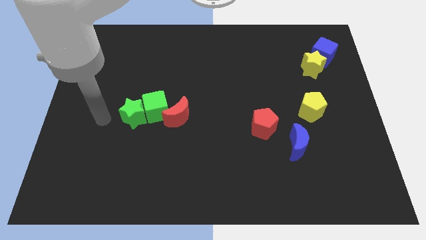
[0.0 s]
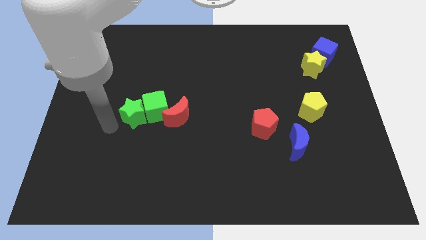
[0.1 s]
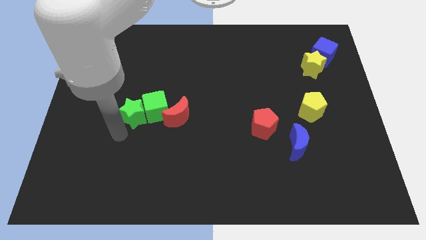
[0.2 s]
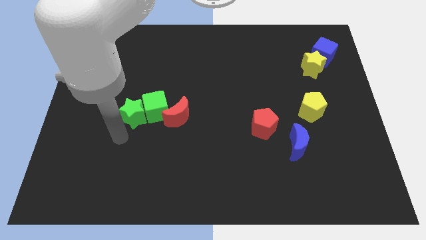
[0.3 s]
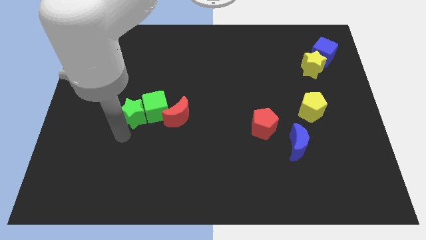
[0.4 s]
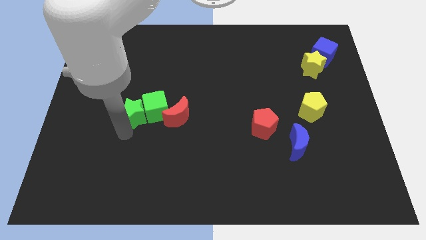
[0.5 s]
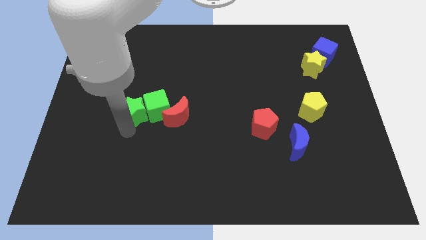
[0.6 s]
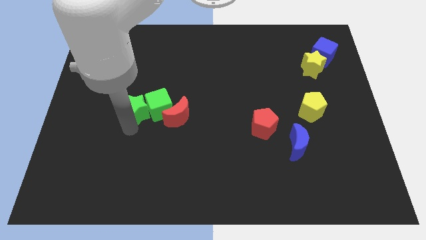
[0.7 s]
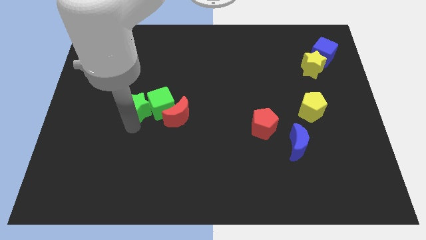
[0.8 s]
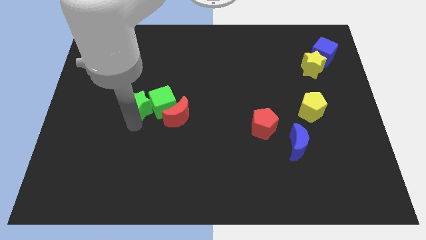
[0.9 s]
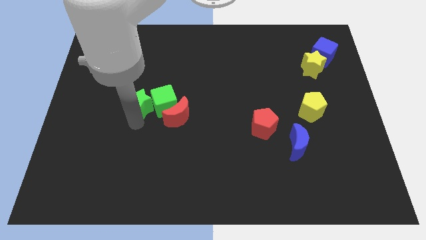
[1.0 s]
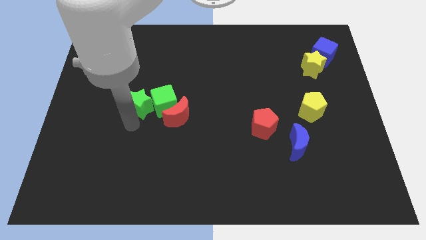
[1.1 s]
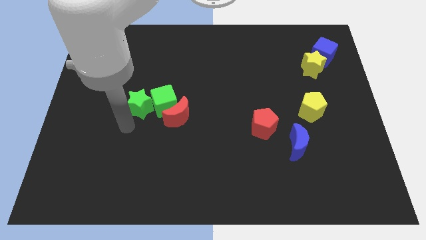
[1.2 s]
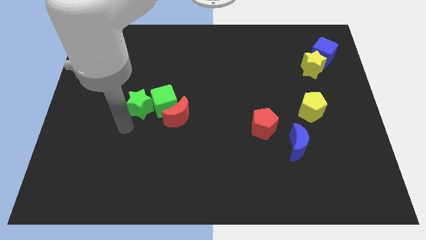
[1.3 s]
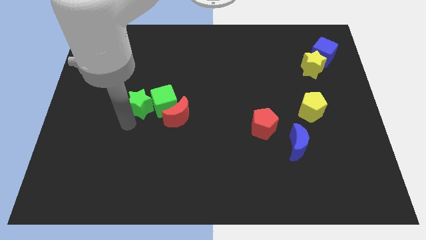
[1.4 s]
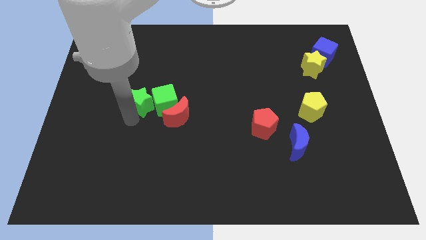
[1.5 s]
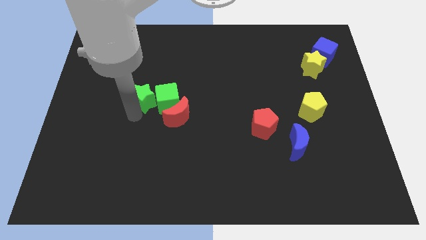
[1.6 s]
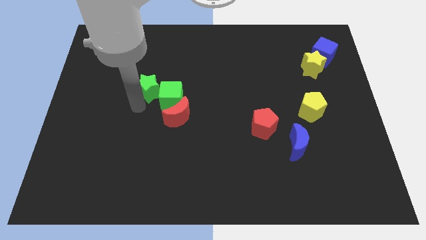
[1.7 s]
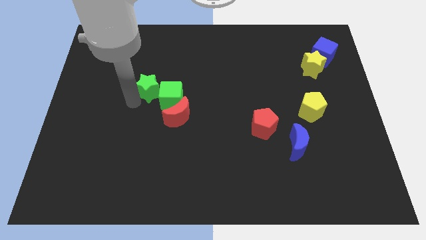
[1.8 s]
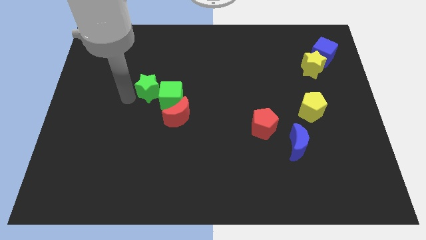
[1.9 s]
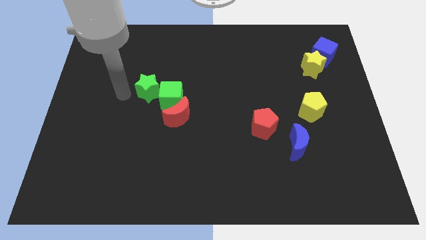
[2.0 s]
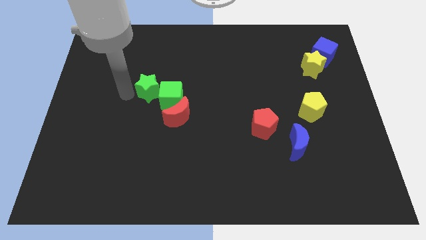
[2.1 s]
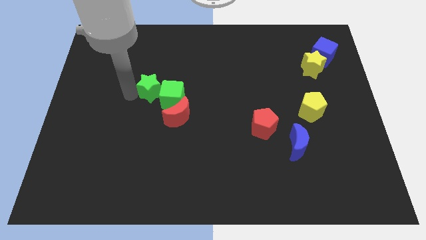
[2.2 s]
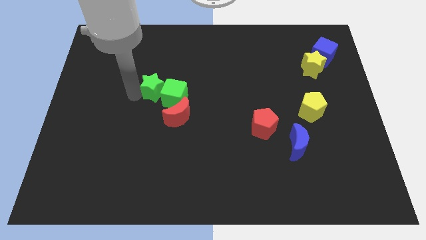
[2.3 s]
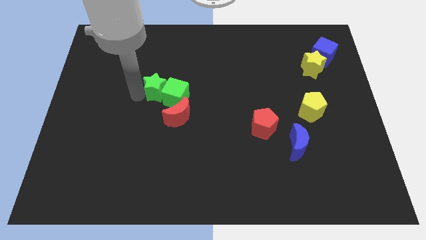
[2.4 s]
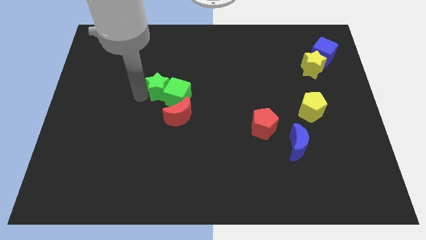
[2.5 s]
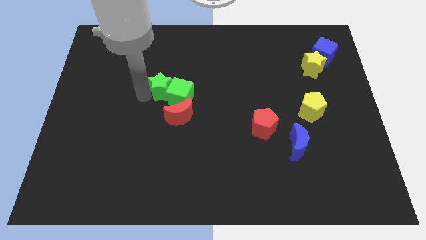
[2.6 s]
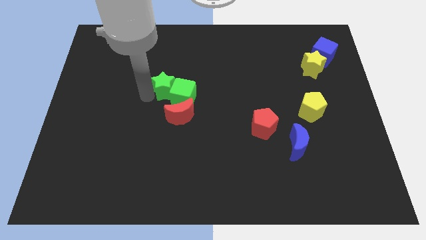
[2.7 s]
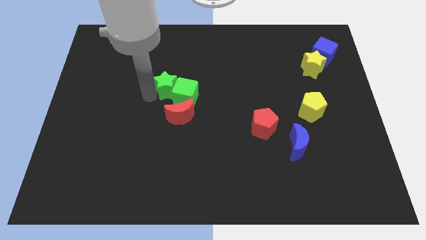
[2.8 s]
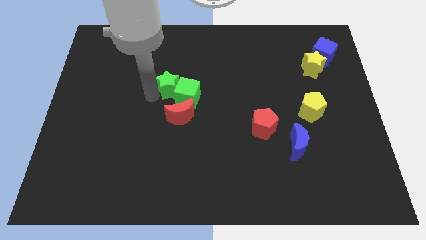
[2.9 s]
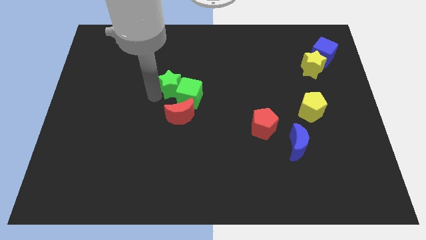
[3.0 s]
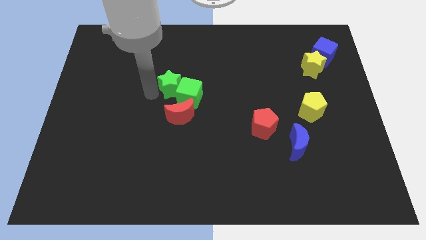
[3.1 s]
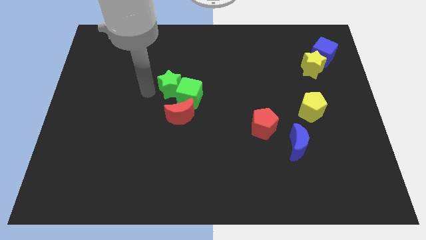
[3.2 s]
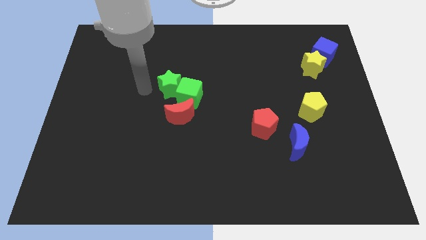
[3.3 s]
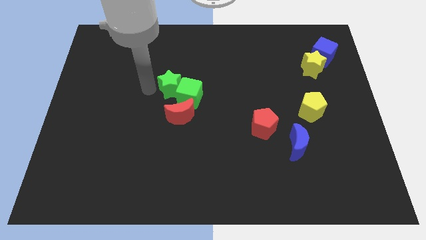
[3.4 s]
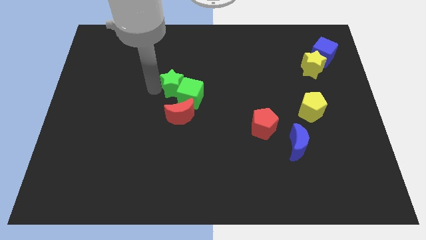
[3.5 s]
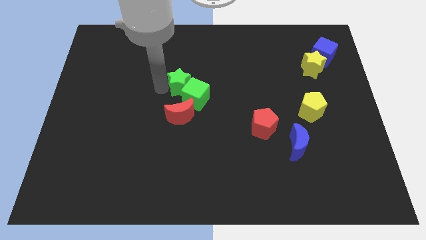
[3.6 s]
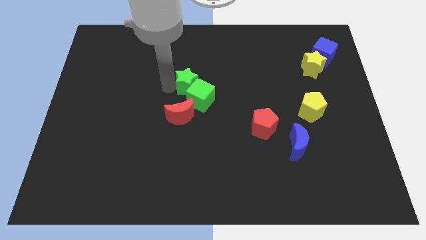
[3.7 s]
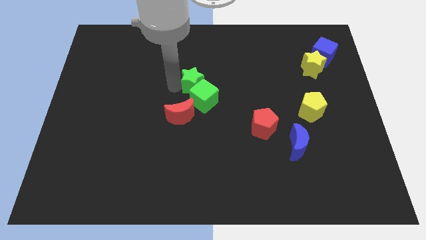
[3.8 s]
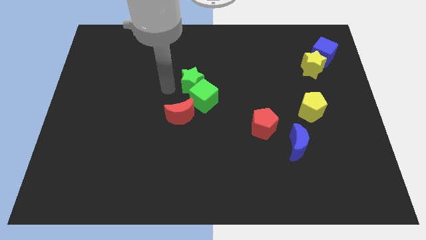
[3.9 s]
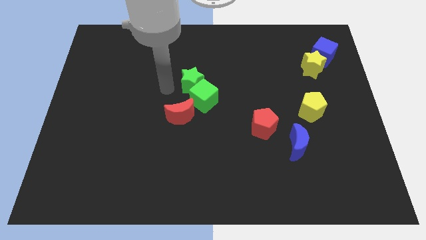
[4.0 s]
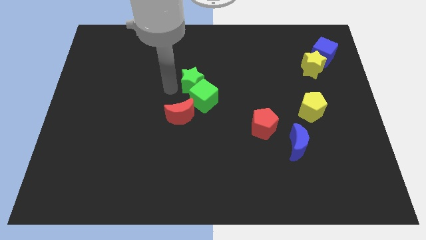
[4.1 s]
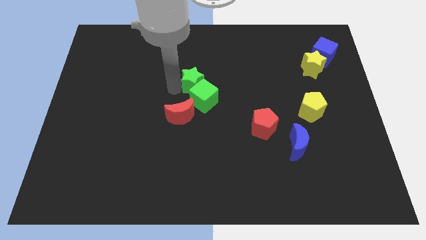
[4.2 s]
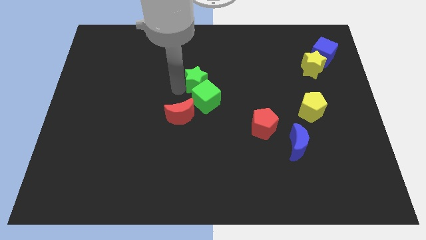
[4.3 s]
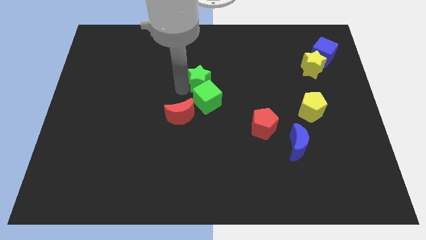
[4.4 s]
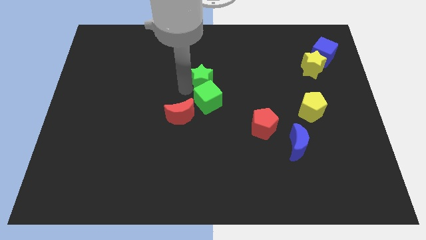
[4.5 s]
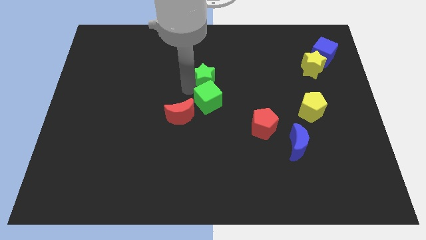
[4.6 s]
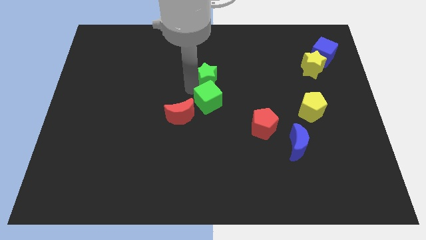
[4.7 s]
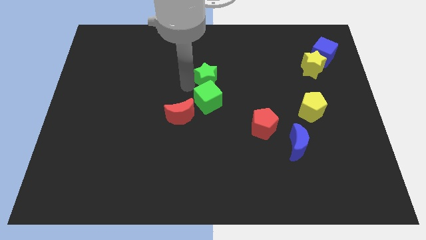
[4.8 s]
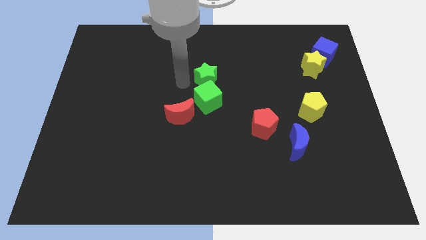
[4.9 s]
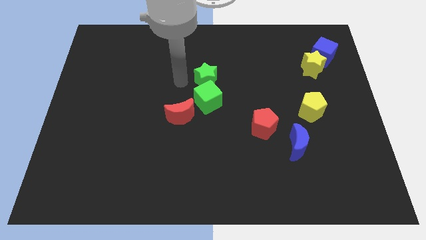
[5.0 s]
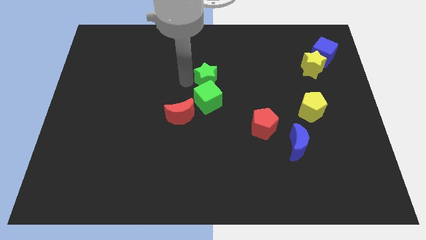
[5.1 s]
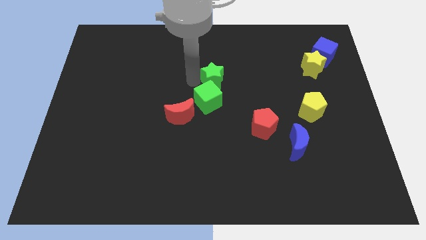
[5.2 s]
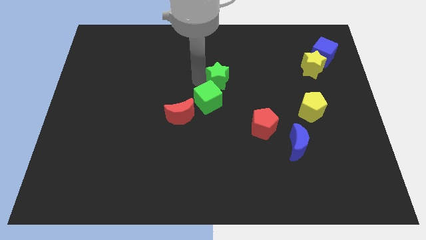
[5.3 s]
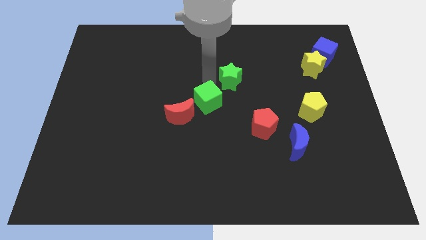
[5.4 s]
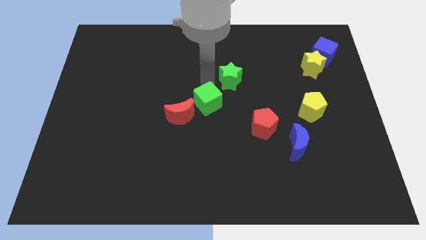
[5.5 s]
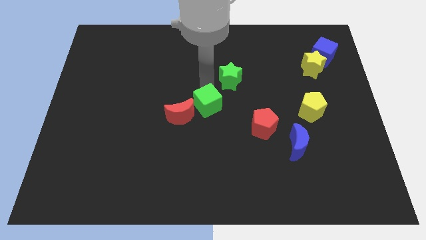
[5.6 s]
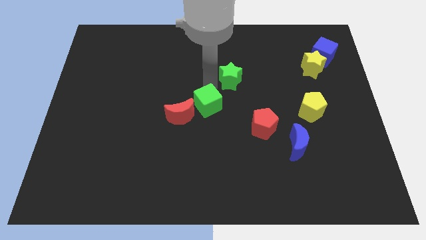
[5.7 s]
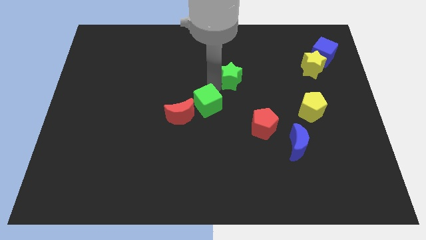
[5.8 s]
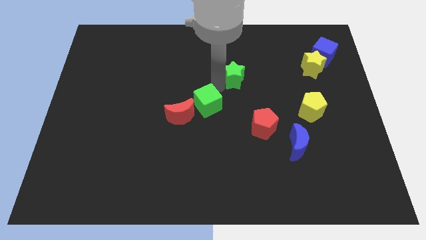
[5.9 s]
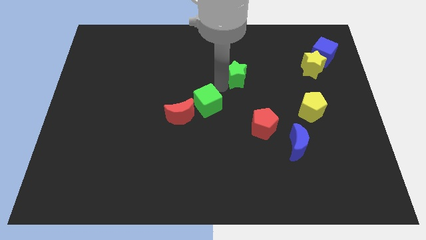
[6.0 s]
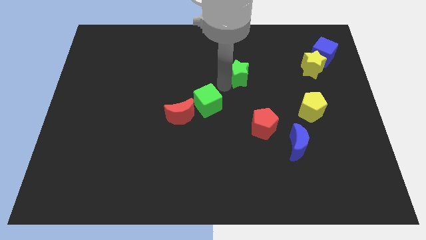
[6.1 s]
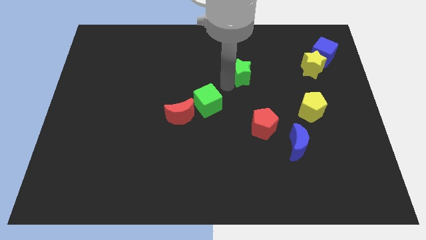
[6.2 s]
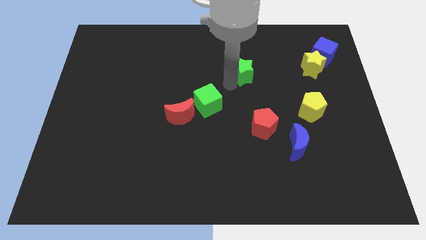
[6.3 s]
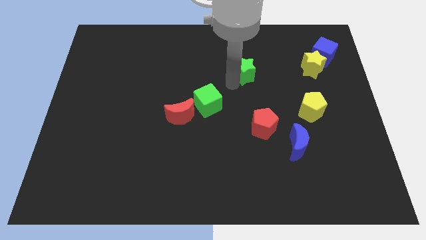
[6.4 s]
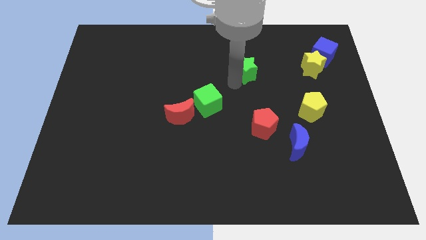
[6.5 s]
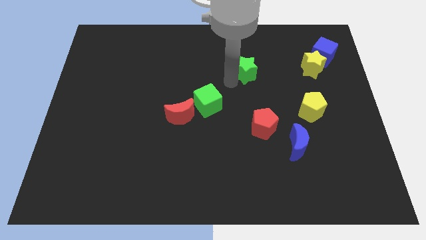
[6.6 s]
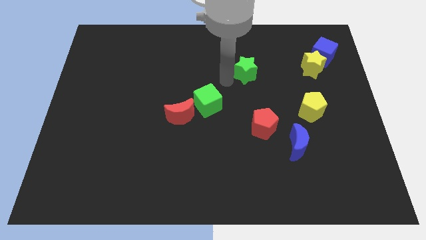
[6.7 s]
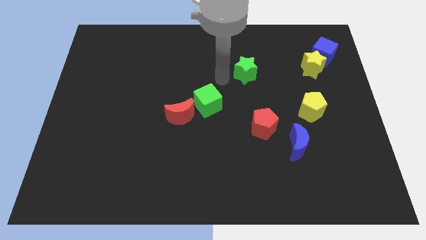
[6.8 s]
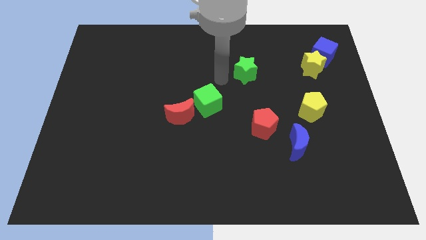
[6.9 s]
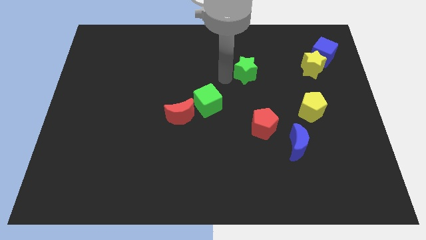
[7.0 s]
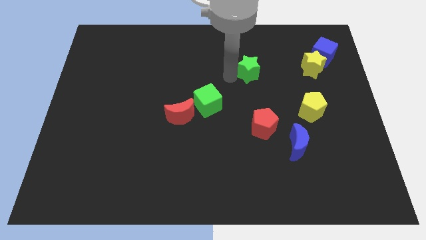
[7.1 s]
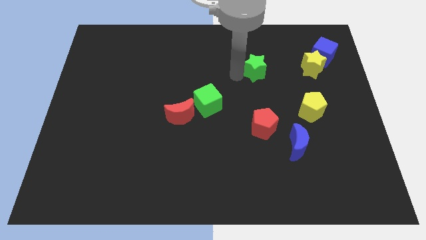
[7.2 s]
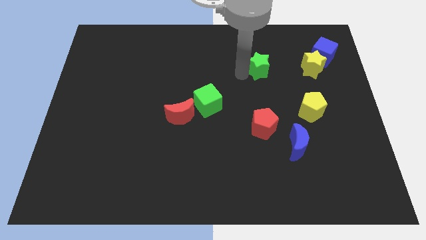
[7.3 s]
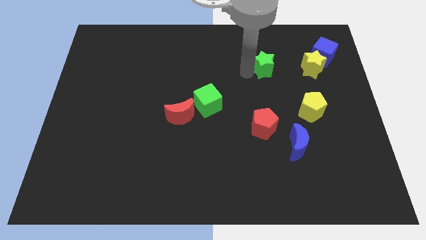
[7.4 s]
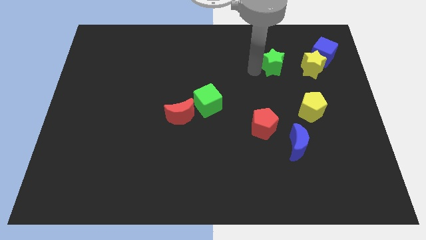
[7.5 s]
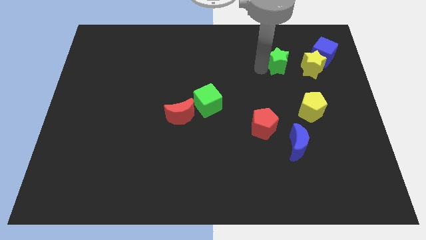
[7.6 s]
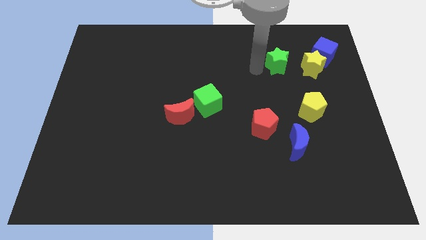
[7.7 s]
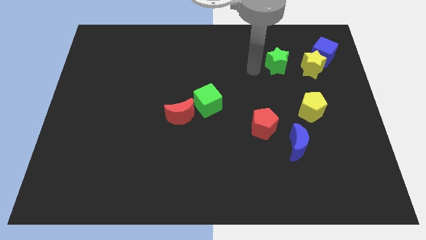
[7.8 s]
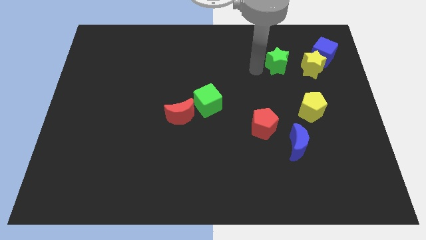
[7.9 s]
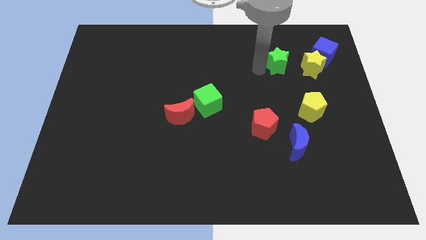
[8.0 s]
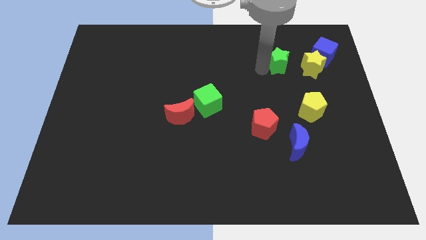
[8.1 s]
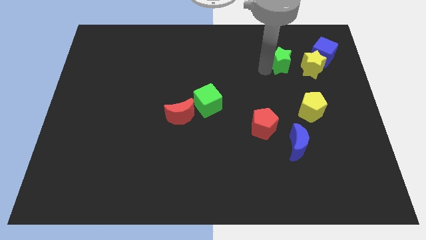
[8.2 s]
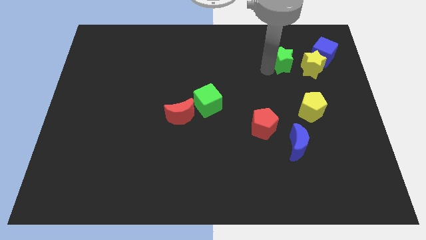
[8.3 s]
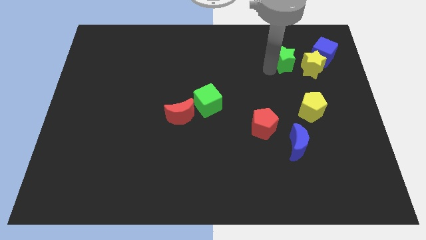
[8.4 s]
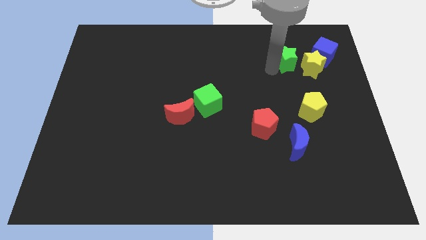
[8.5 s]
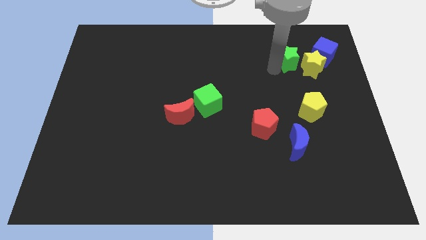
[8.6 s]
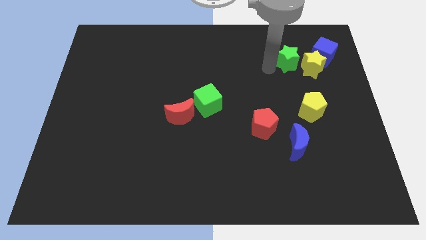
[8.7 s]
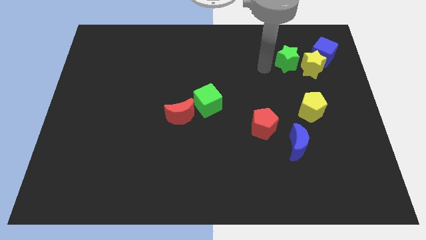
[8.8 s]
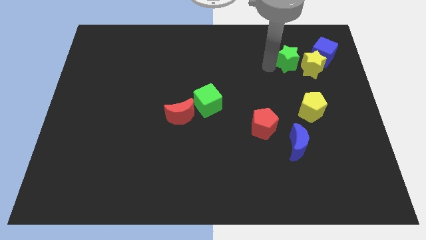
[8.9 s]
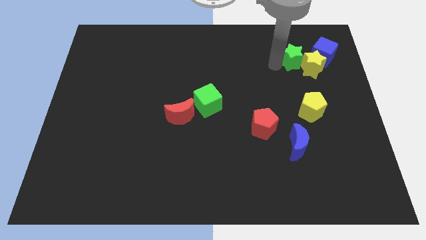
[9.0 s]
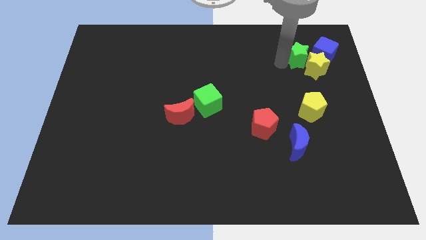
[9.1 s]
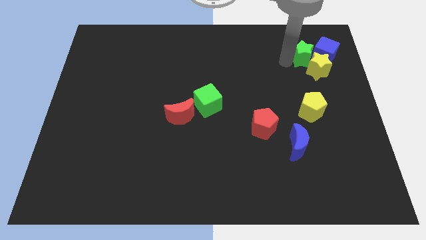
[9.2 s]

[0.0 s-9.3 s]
move the green star to the blue cube
